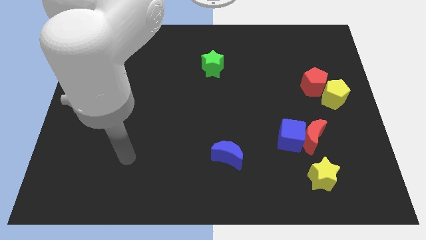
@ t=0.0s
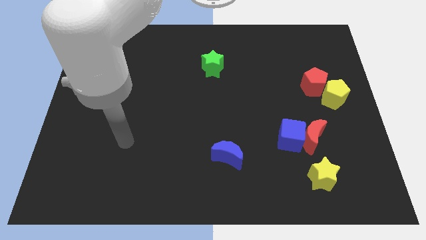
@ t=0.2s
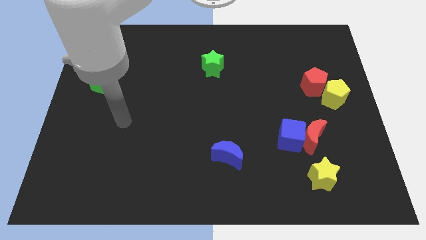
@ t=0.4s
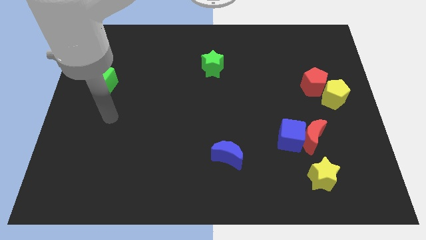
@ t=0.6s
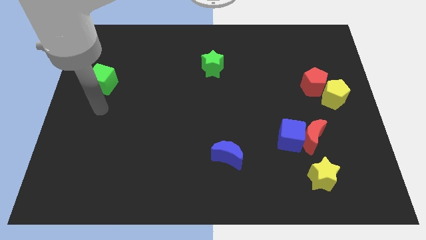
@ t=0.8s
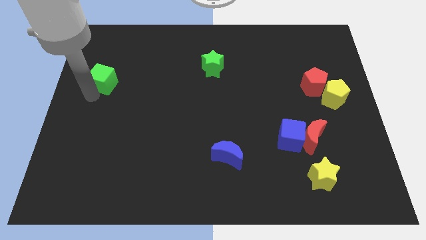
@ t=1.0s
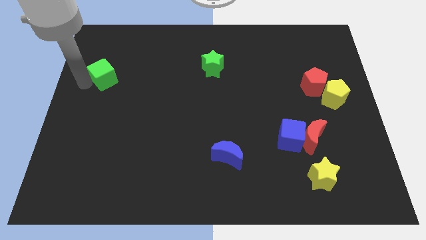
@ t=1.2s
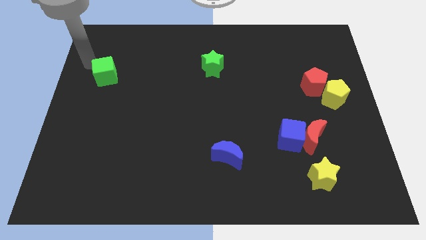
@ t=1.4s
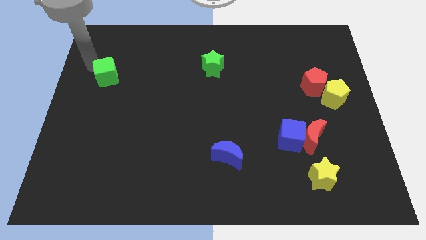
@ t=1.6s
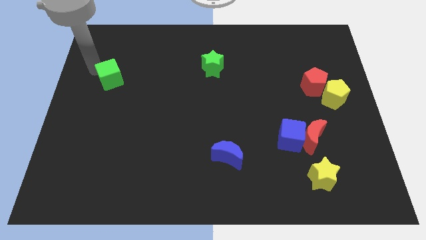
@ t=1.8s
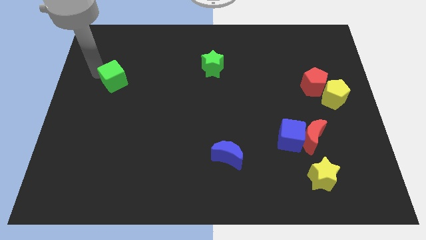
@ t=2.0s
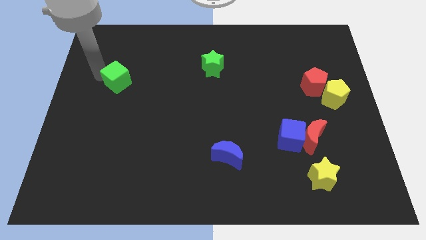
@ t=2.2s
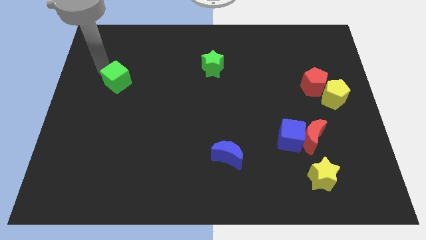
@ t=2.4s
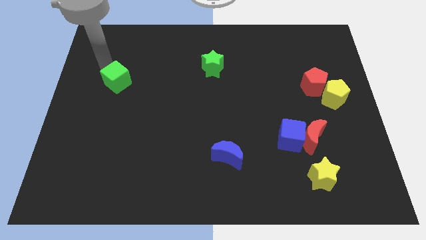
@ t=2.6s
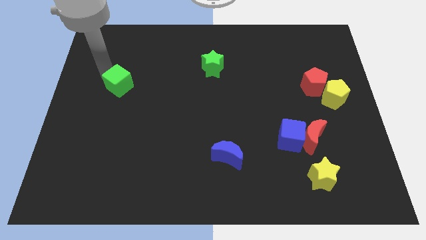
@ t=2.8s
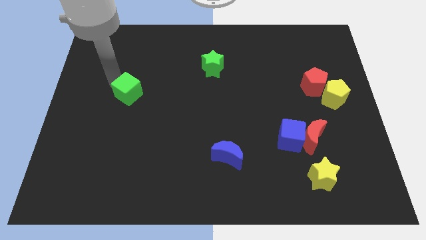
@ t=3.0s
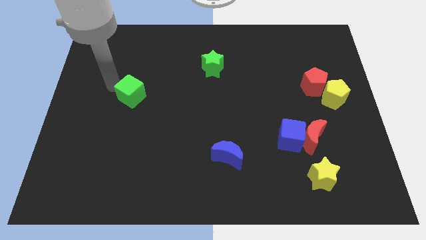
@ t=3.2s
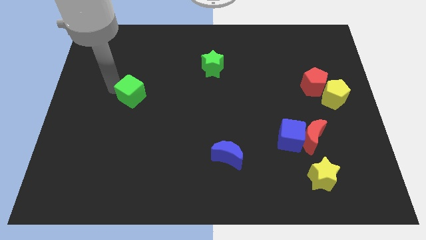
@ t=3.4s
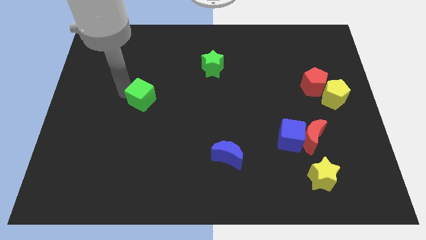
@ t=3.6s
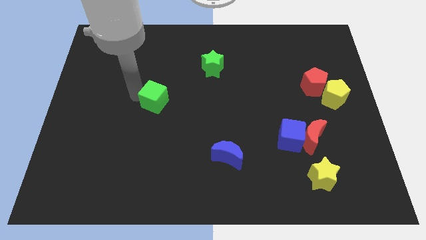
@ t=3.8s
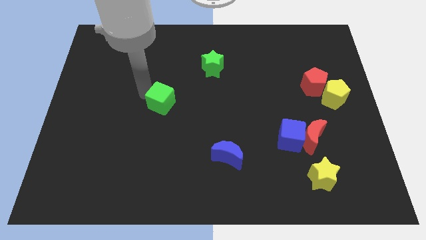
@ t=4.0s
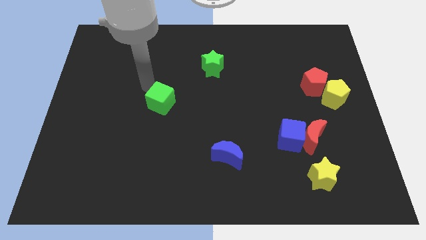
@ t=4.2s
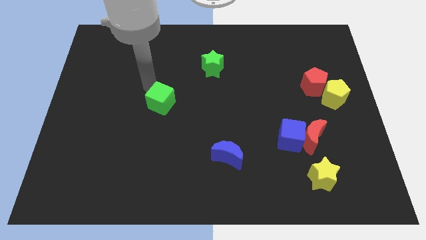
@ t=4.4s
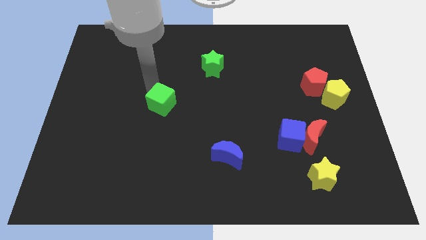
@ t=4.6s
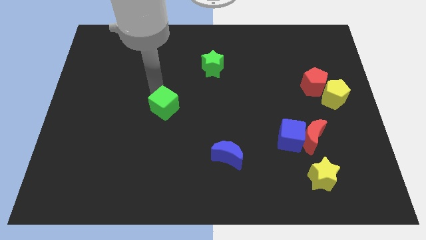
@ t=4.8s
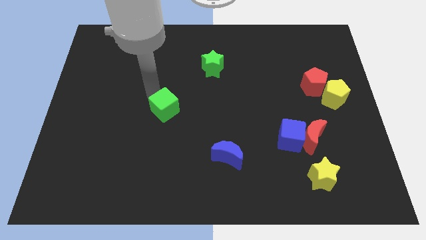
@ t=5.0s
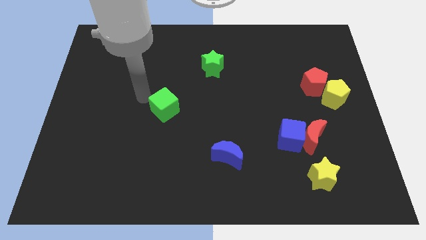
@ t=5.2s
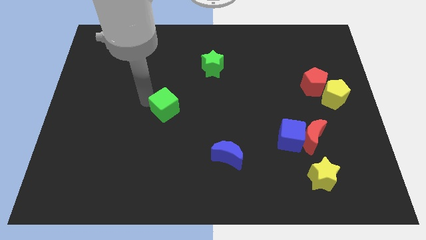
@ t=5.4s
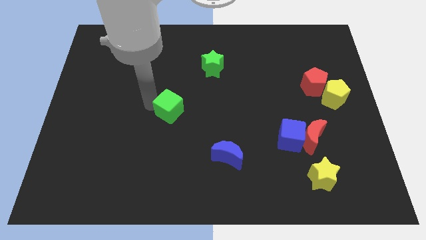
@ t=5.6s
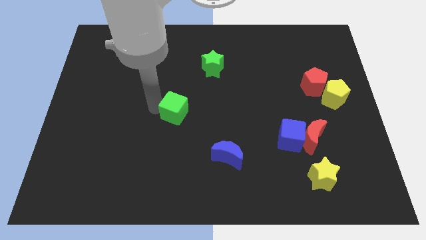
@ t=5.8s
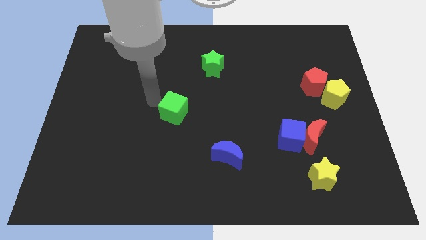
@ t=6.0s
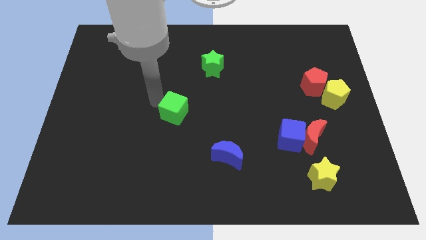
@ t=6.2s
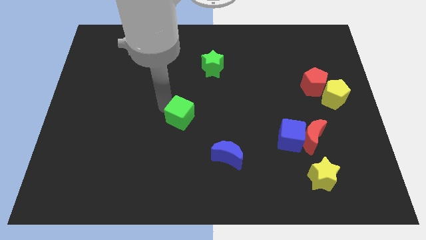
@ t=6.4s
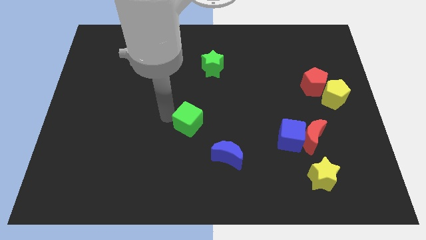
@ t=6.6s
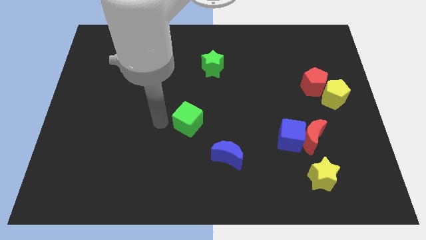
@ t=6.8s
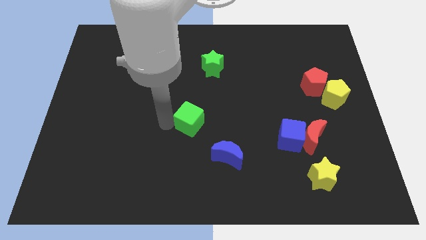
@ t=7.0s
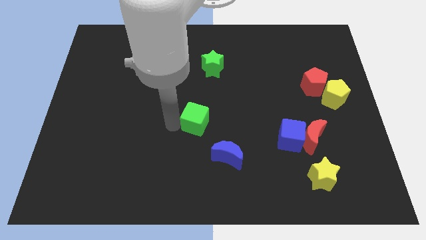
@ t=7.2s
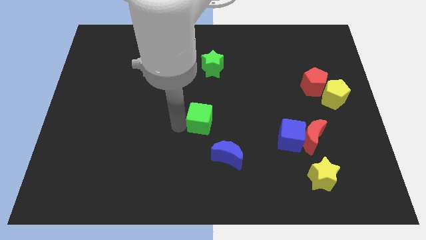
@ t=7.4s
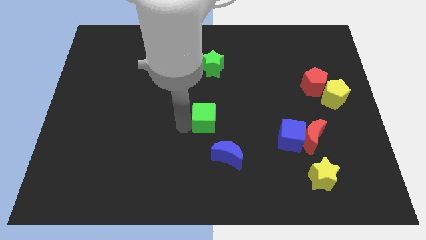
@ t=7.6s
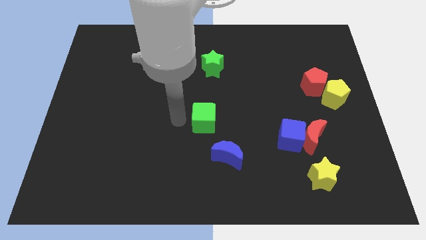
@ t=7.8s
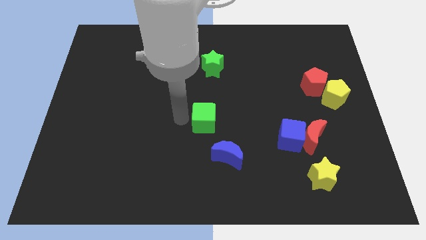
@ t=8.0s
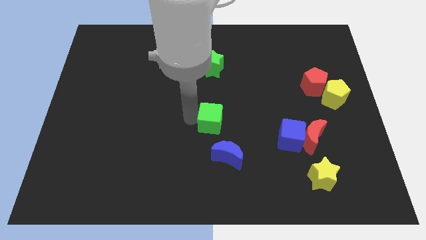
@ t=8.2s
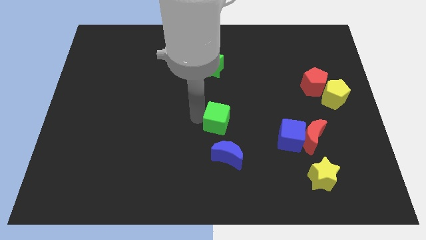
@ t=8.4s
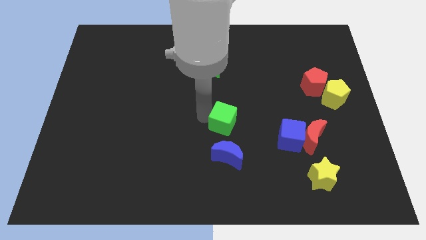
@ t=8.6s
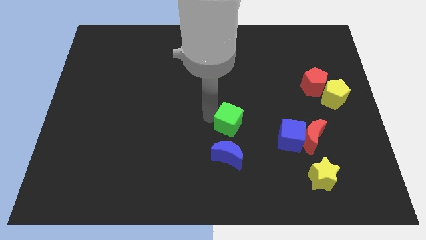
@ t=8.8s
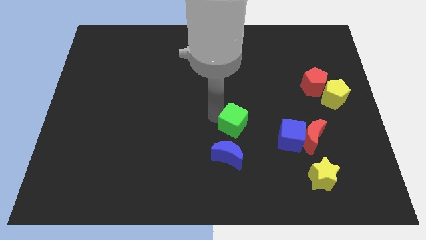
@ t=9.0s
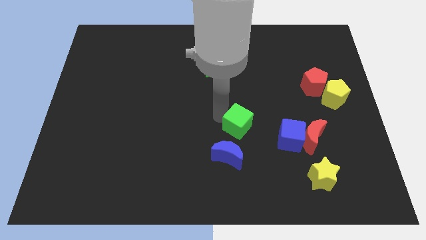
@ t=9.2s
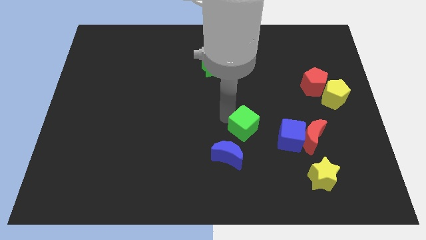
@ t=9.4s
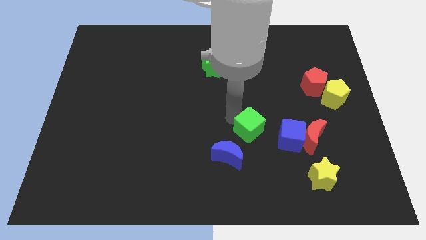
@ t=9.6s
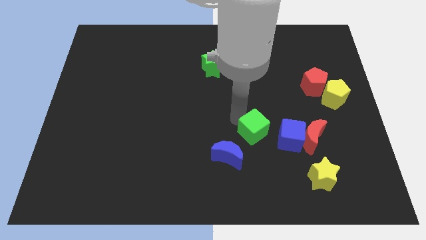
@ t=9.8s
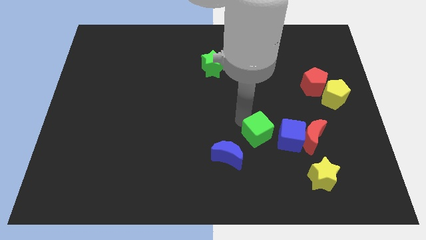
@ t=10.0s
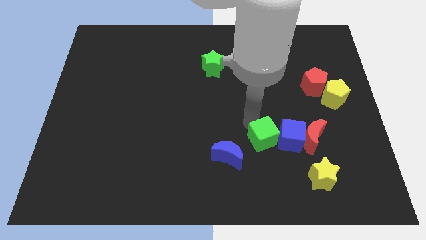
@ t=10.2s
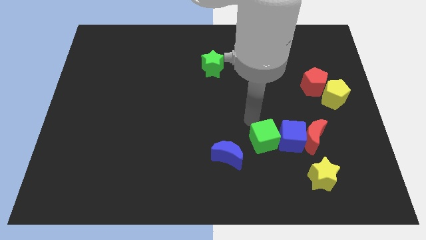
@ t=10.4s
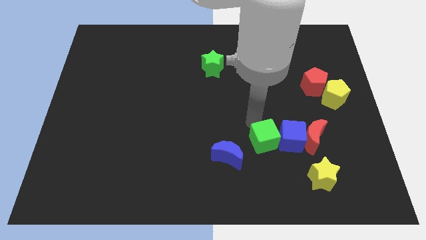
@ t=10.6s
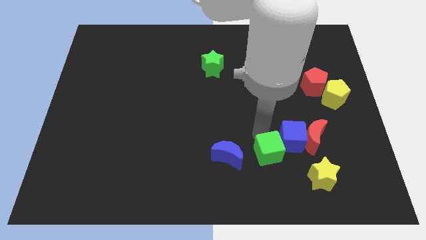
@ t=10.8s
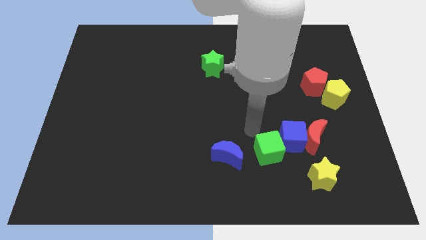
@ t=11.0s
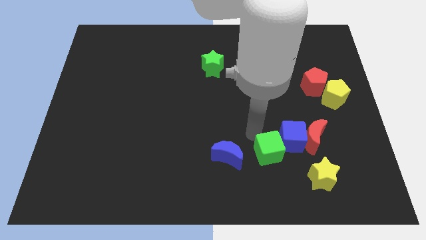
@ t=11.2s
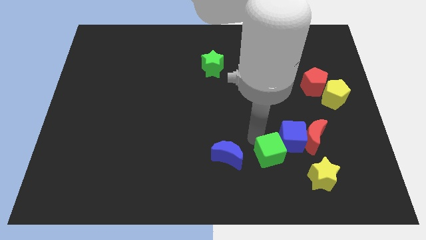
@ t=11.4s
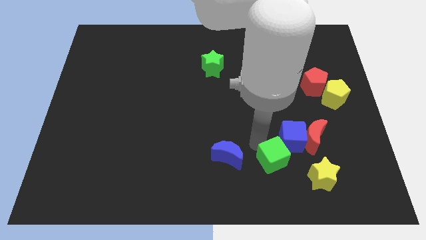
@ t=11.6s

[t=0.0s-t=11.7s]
move the green cube to the bottom side of the blue cube
